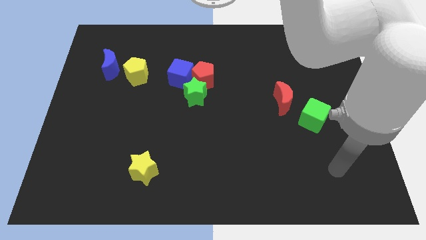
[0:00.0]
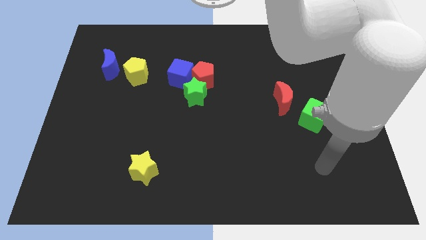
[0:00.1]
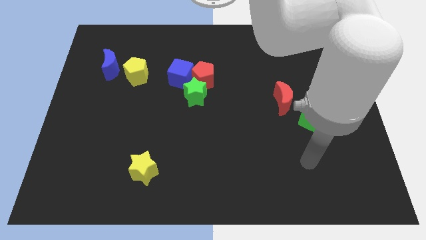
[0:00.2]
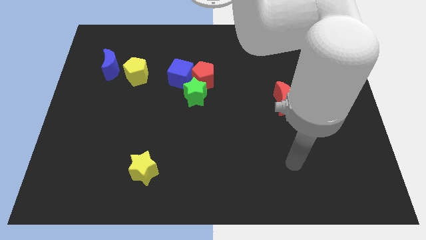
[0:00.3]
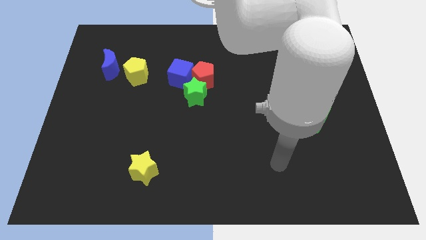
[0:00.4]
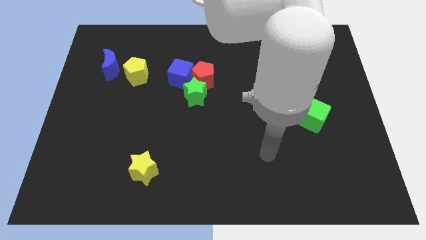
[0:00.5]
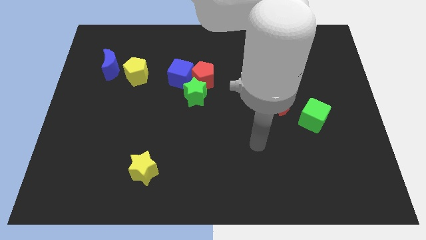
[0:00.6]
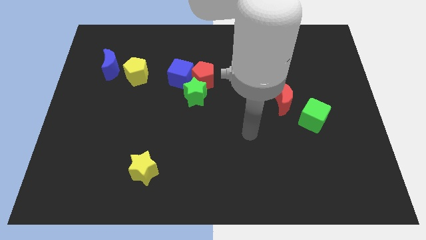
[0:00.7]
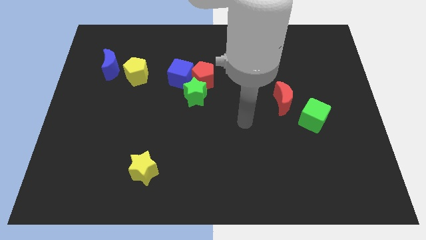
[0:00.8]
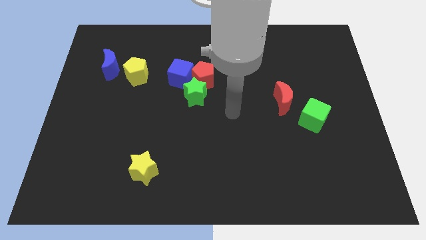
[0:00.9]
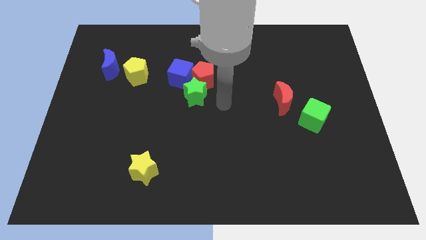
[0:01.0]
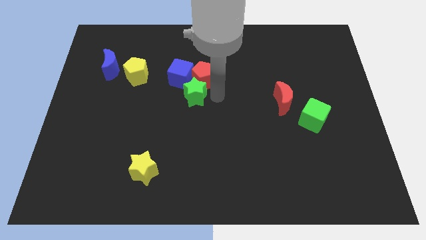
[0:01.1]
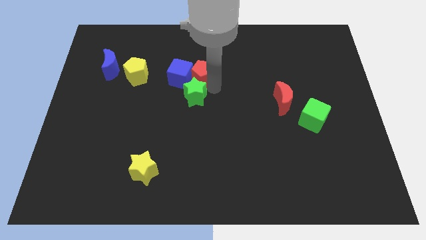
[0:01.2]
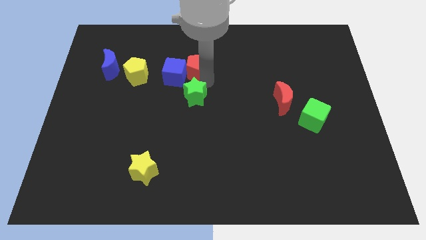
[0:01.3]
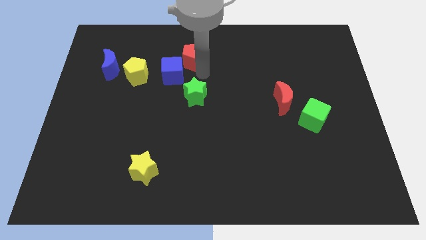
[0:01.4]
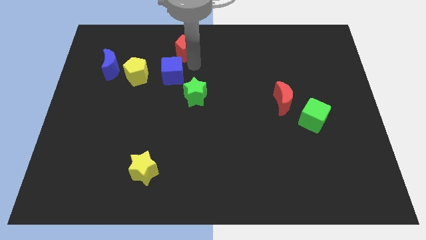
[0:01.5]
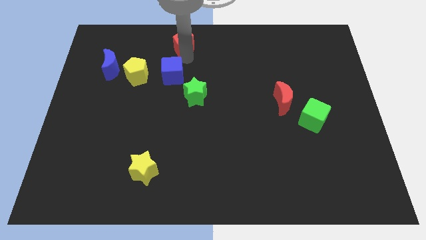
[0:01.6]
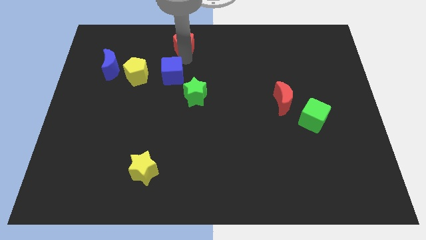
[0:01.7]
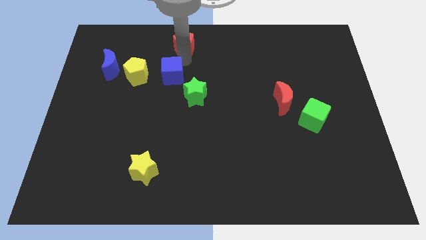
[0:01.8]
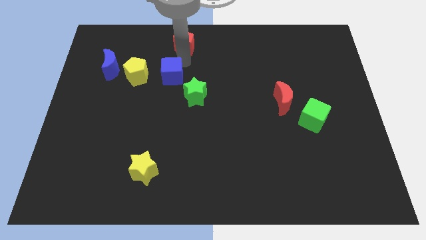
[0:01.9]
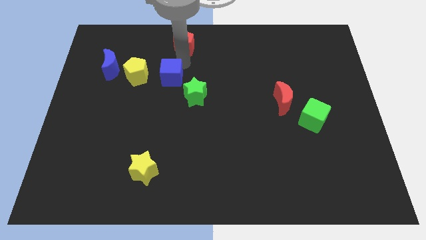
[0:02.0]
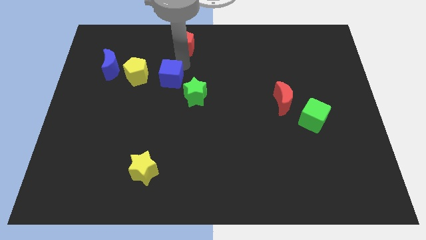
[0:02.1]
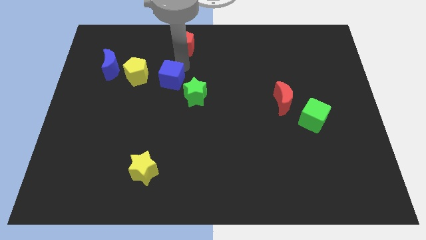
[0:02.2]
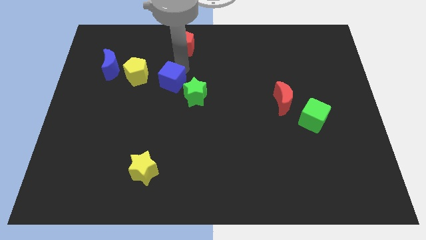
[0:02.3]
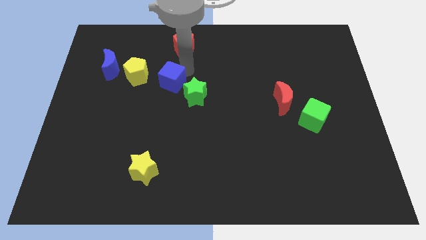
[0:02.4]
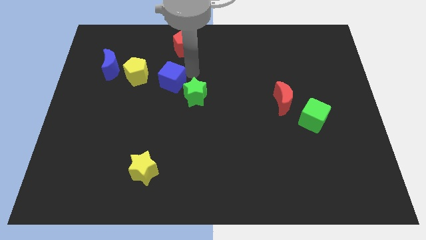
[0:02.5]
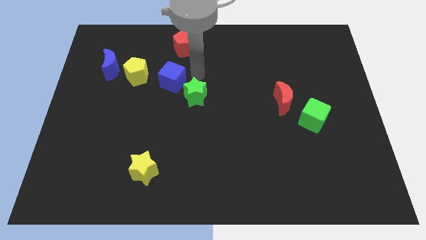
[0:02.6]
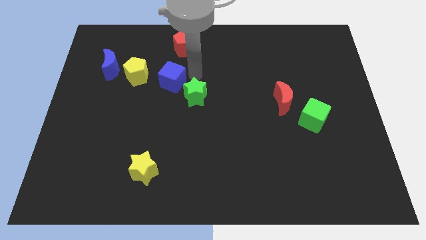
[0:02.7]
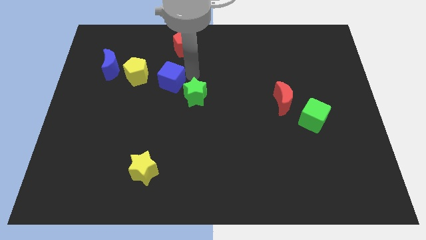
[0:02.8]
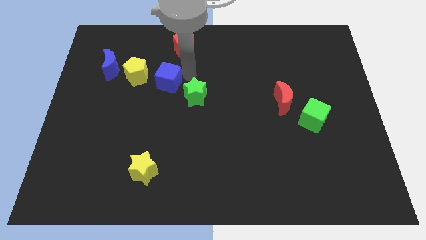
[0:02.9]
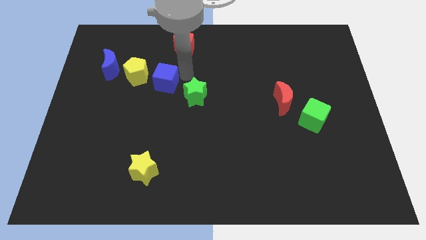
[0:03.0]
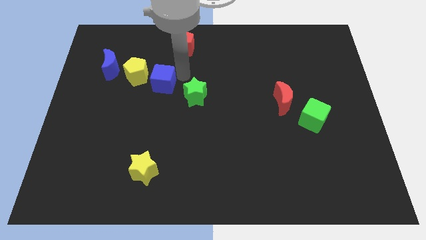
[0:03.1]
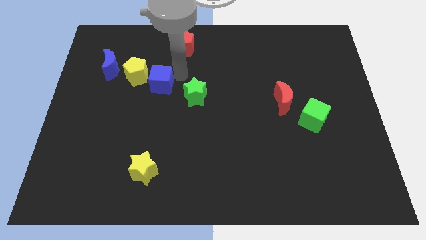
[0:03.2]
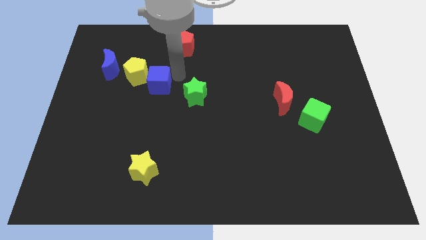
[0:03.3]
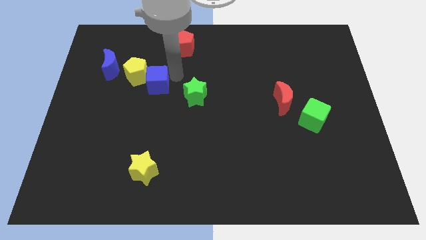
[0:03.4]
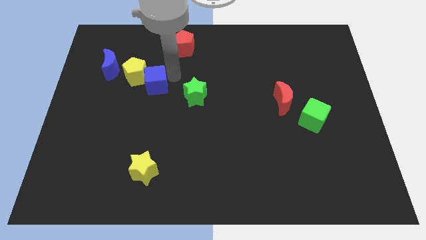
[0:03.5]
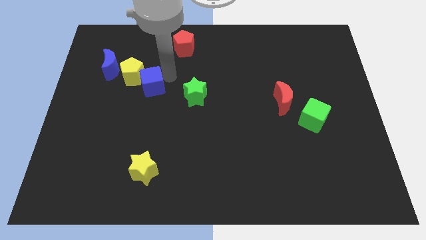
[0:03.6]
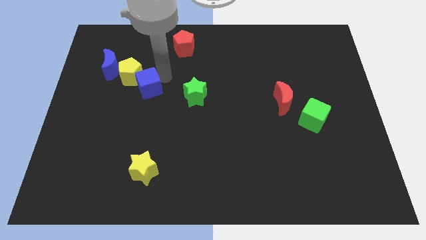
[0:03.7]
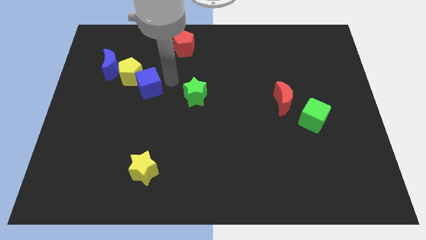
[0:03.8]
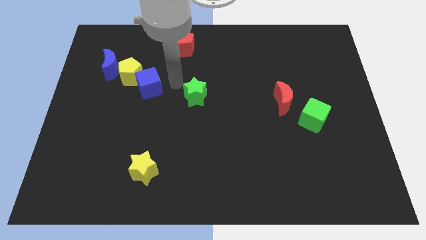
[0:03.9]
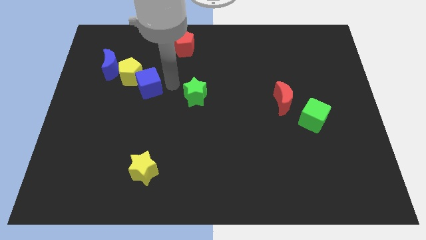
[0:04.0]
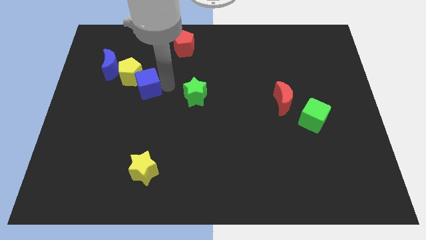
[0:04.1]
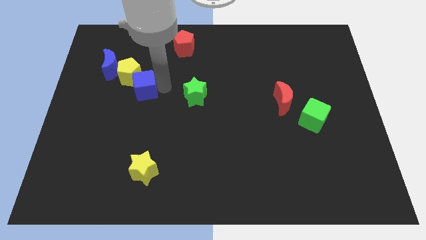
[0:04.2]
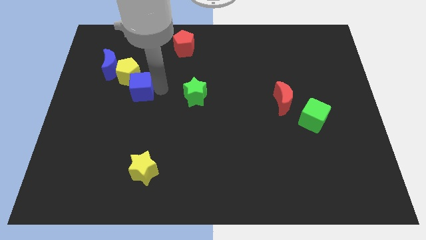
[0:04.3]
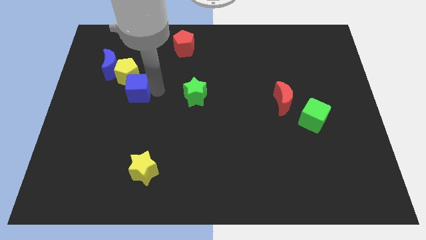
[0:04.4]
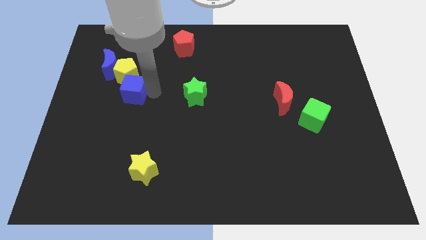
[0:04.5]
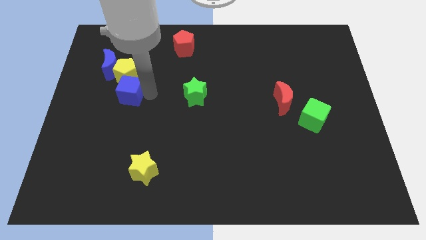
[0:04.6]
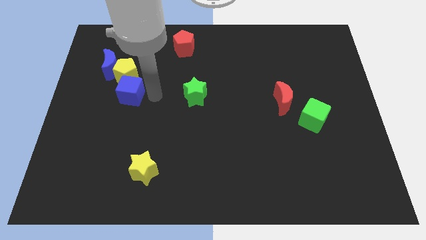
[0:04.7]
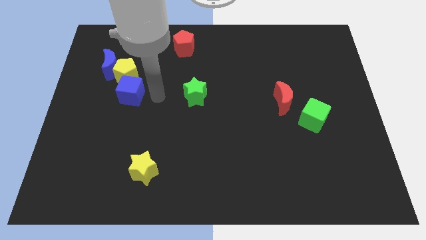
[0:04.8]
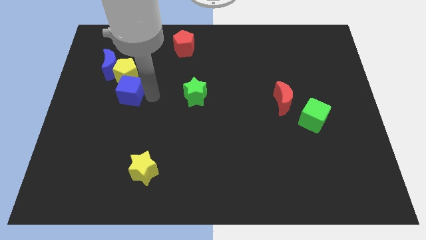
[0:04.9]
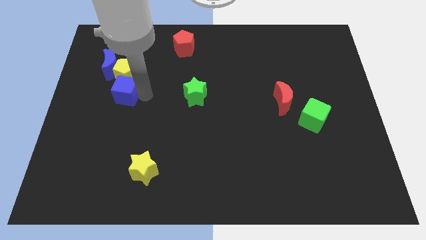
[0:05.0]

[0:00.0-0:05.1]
put the blue cube diagonally down and to the left of the yellow pentagon

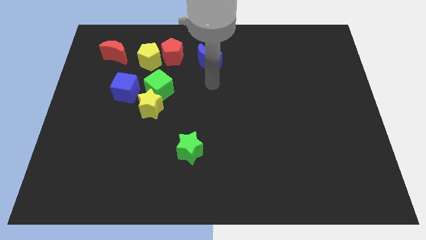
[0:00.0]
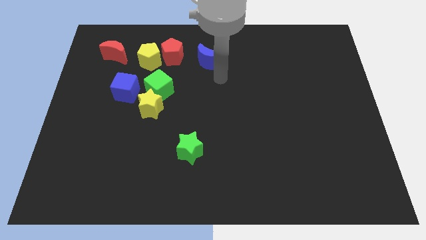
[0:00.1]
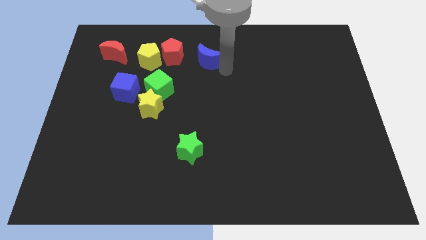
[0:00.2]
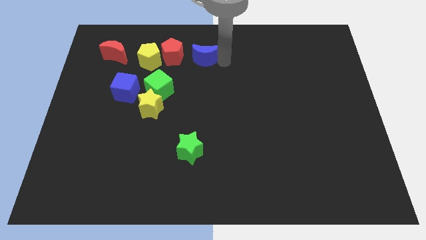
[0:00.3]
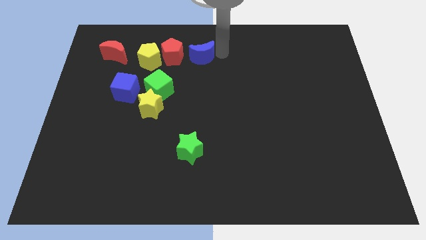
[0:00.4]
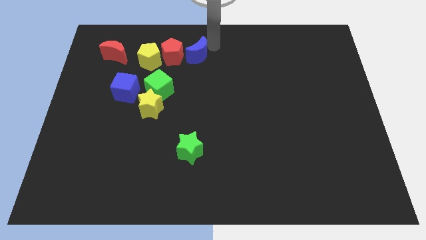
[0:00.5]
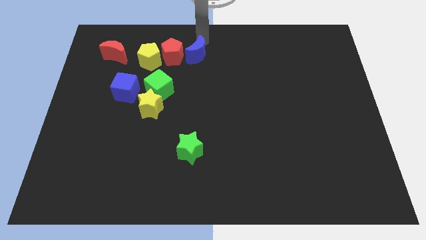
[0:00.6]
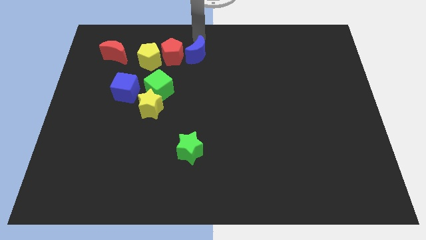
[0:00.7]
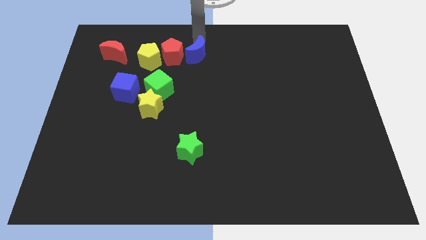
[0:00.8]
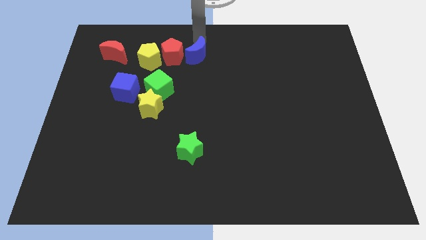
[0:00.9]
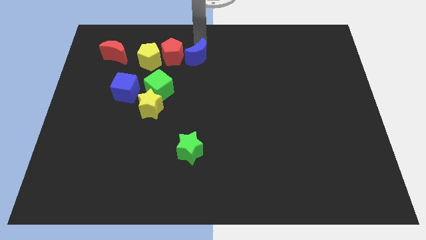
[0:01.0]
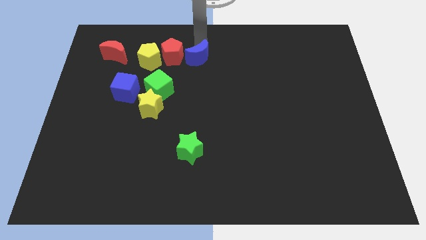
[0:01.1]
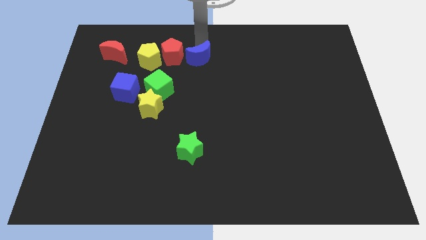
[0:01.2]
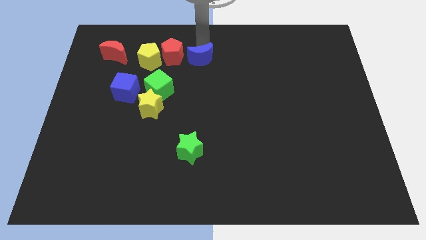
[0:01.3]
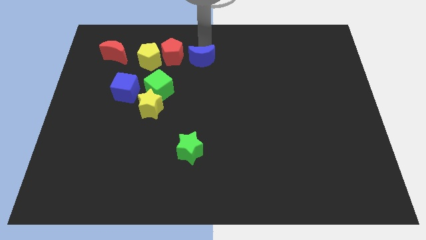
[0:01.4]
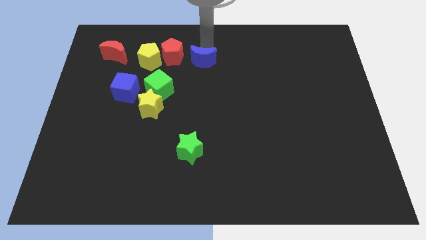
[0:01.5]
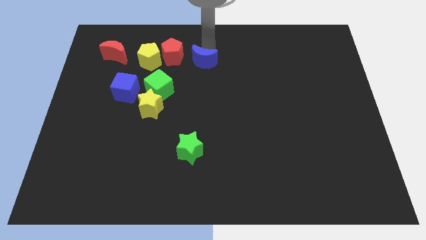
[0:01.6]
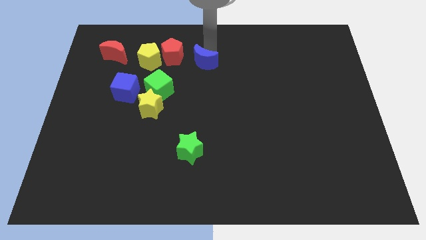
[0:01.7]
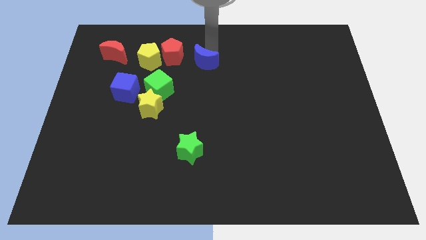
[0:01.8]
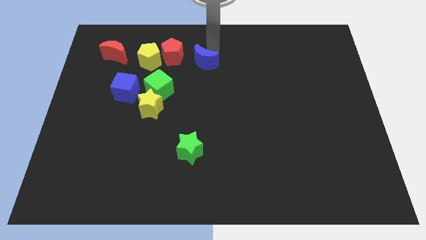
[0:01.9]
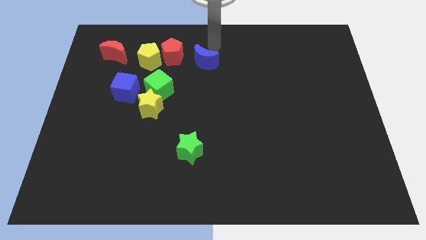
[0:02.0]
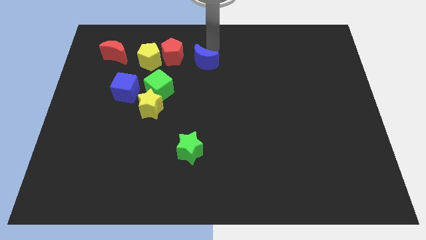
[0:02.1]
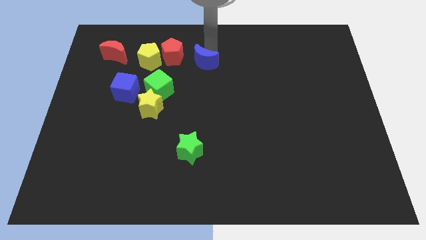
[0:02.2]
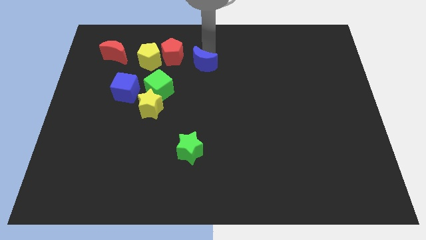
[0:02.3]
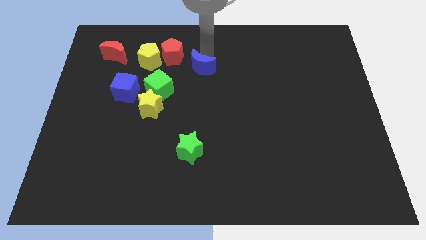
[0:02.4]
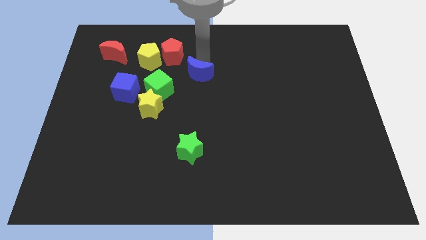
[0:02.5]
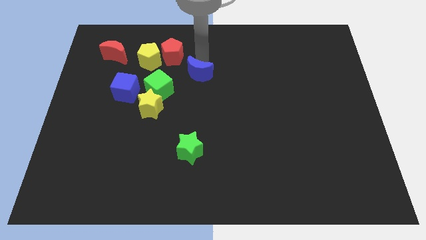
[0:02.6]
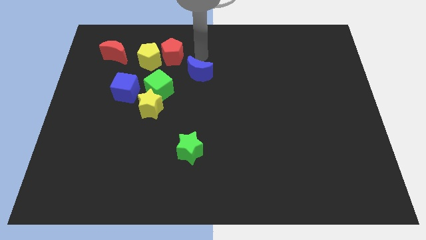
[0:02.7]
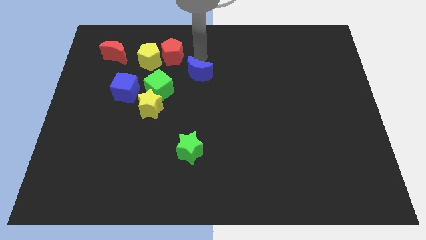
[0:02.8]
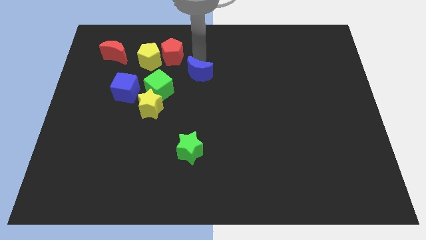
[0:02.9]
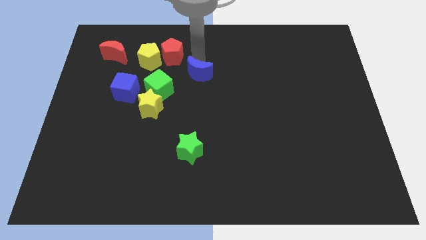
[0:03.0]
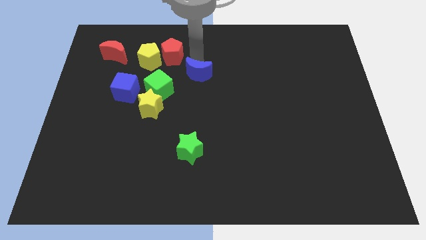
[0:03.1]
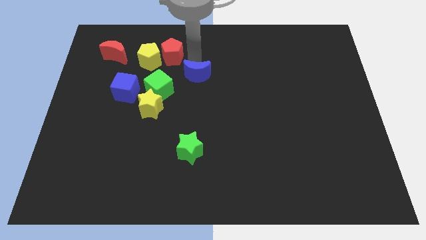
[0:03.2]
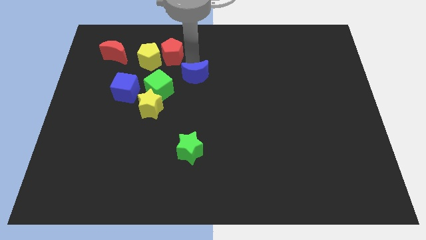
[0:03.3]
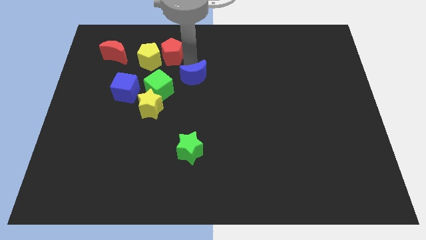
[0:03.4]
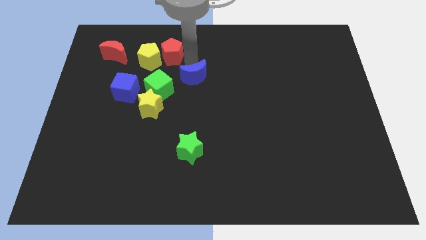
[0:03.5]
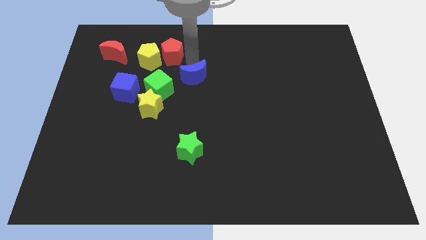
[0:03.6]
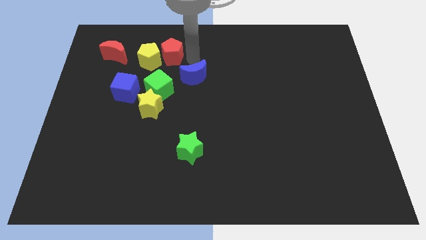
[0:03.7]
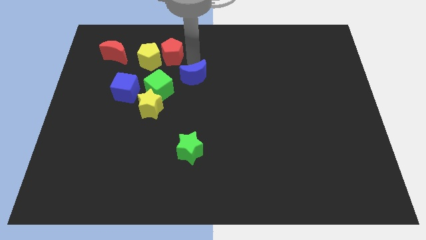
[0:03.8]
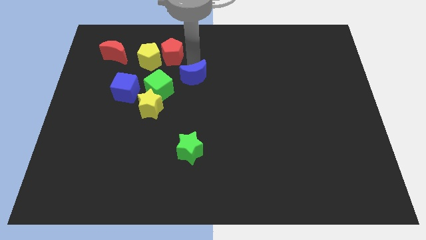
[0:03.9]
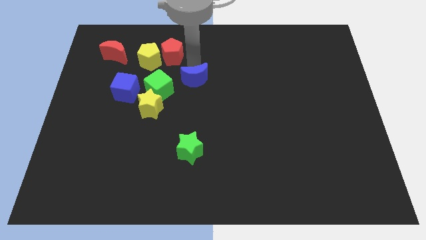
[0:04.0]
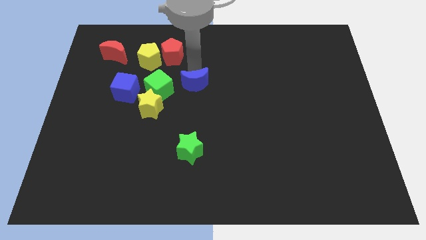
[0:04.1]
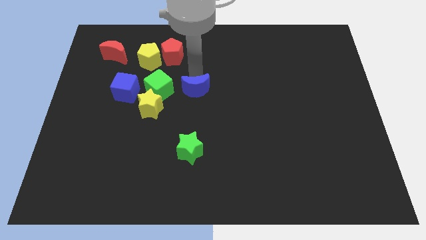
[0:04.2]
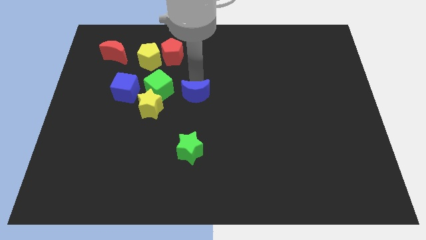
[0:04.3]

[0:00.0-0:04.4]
move the blue moon right of the yellow star
